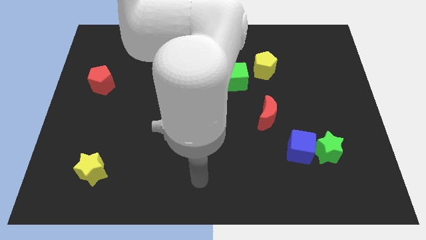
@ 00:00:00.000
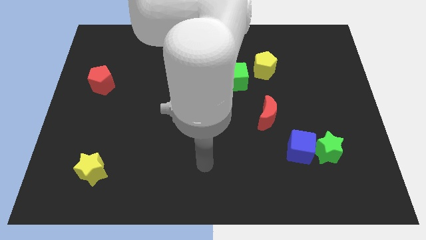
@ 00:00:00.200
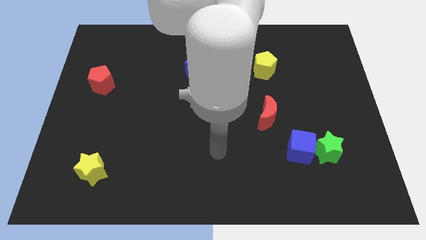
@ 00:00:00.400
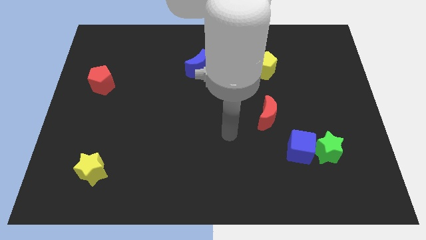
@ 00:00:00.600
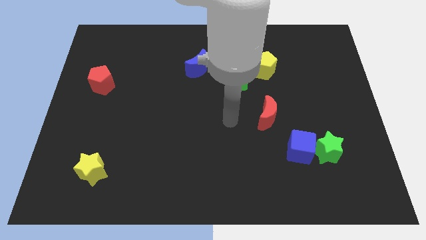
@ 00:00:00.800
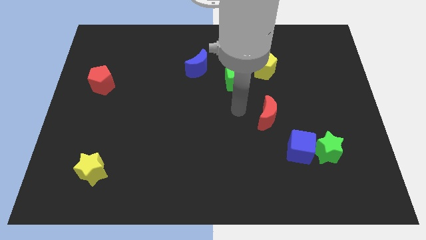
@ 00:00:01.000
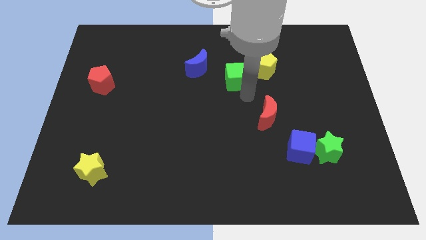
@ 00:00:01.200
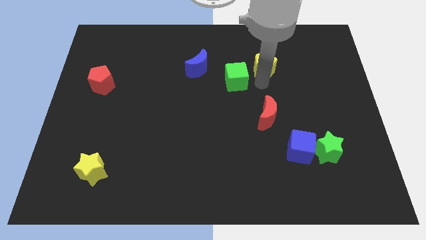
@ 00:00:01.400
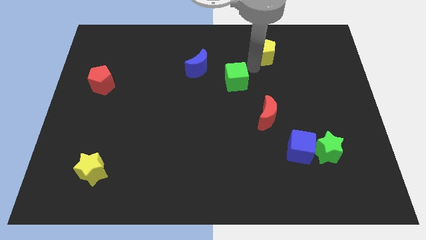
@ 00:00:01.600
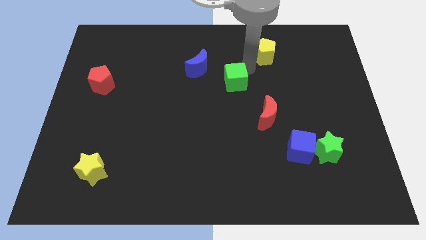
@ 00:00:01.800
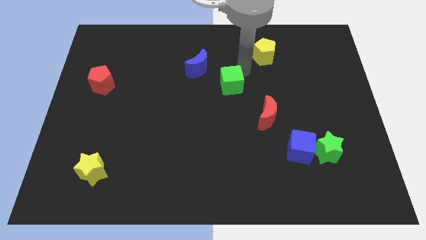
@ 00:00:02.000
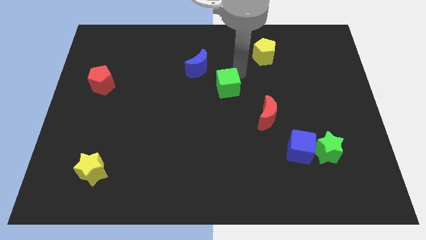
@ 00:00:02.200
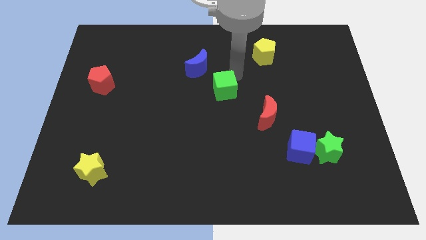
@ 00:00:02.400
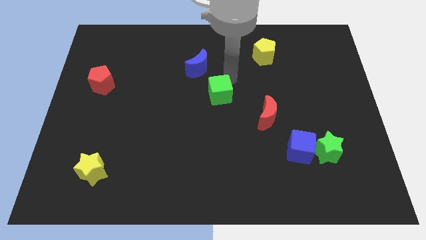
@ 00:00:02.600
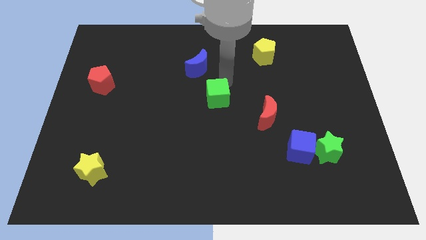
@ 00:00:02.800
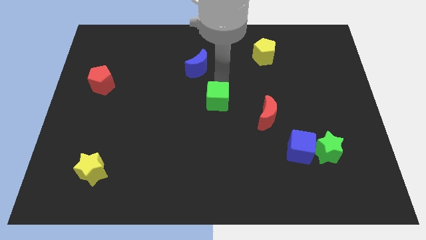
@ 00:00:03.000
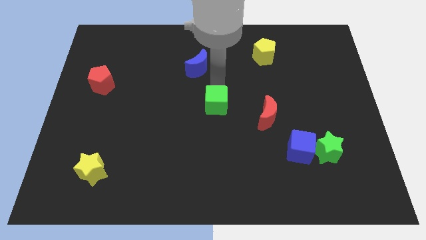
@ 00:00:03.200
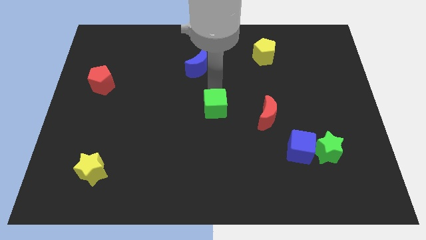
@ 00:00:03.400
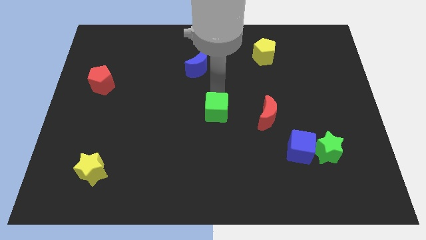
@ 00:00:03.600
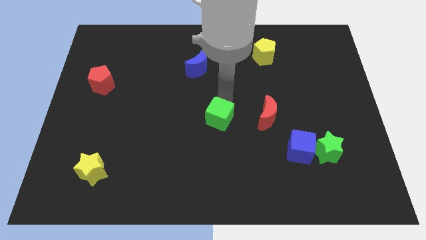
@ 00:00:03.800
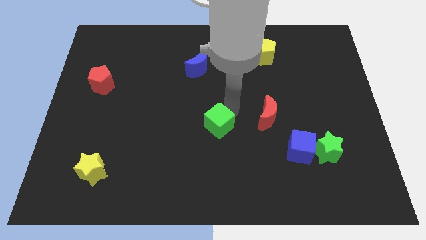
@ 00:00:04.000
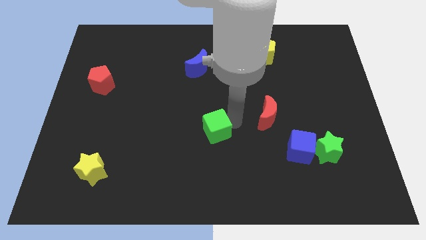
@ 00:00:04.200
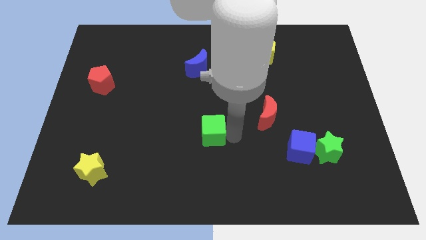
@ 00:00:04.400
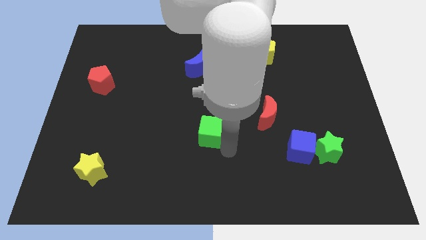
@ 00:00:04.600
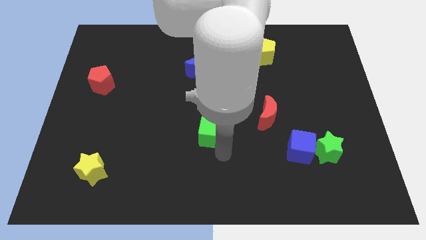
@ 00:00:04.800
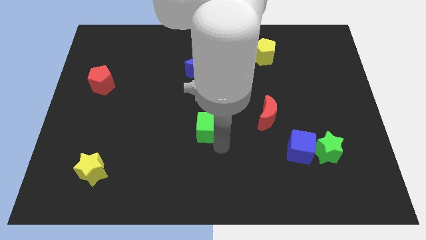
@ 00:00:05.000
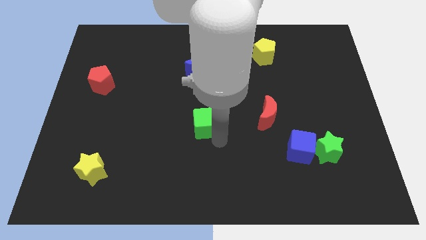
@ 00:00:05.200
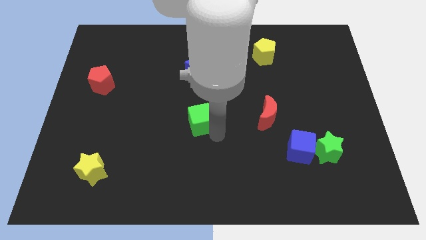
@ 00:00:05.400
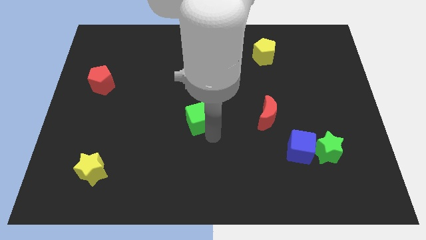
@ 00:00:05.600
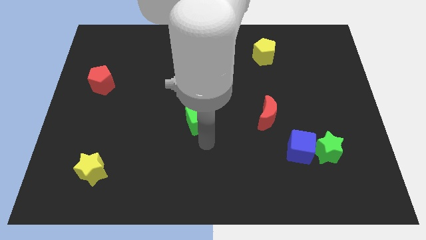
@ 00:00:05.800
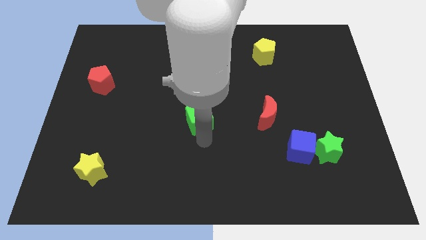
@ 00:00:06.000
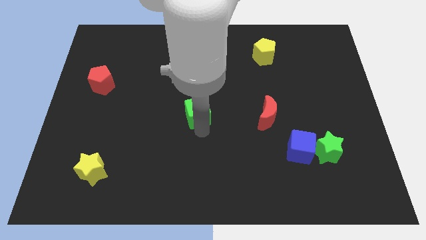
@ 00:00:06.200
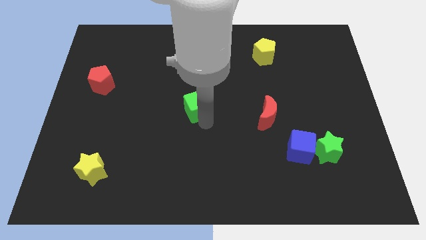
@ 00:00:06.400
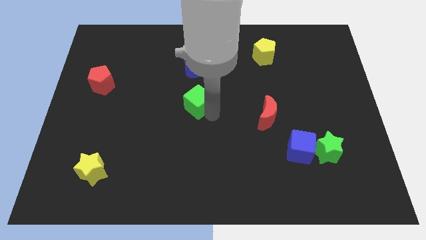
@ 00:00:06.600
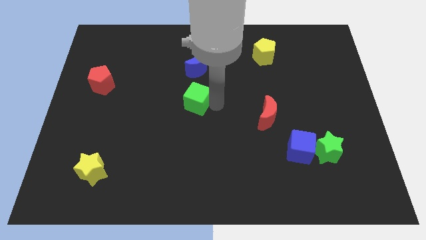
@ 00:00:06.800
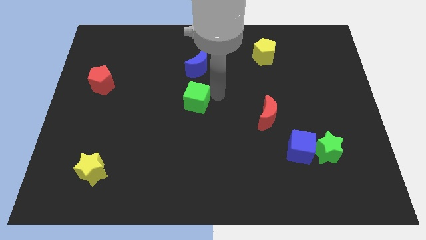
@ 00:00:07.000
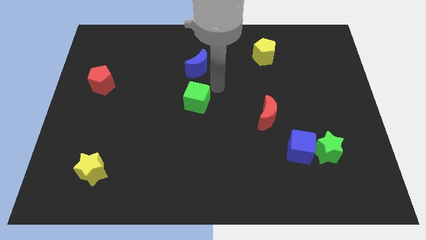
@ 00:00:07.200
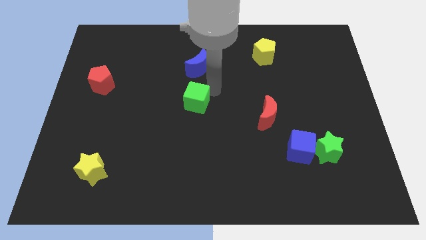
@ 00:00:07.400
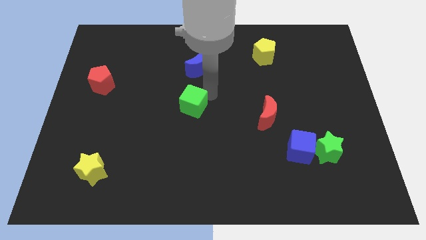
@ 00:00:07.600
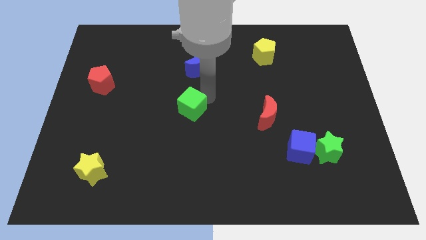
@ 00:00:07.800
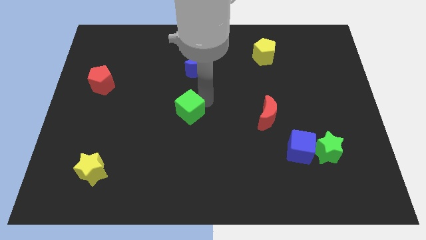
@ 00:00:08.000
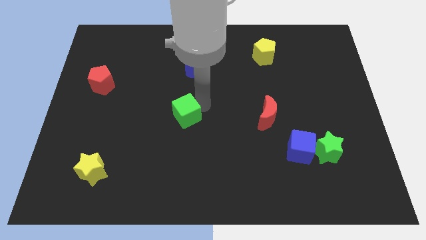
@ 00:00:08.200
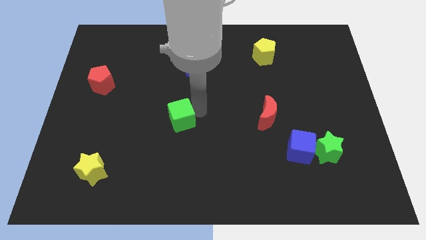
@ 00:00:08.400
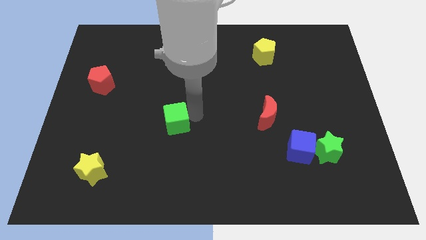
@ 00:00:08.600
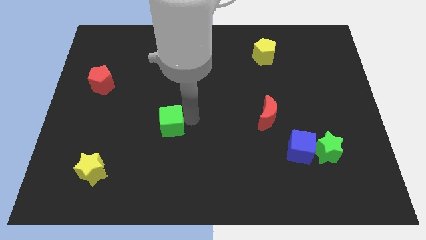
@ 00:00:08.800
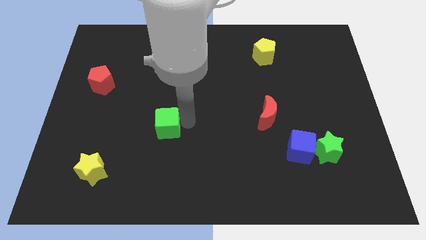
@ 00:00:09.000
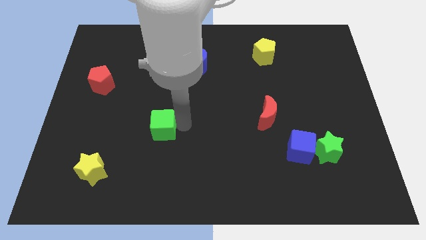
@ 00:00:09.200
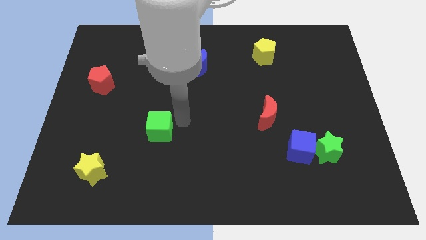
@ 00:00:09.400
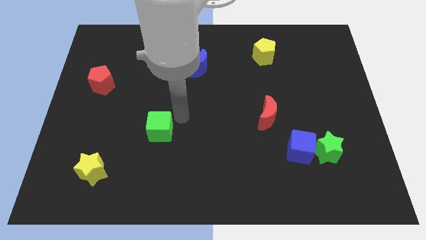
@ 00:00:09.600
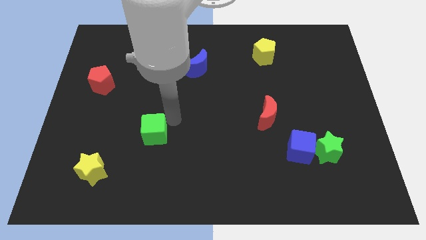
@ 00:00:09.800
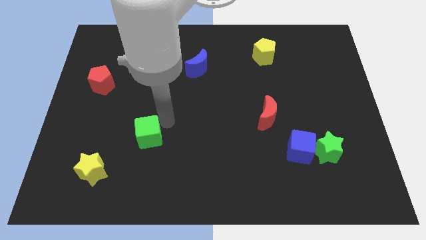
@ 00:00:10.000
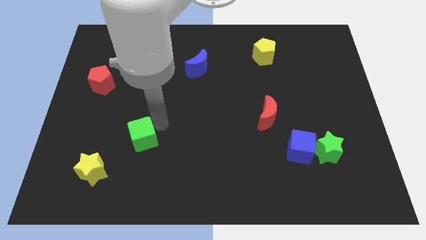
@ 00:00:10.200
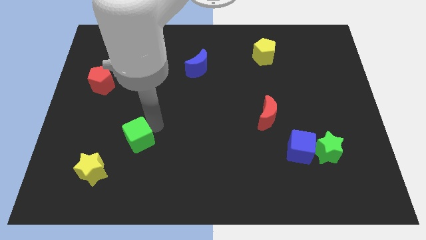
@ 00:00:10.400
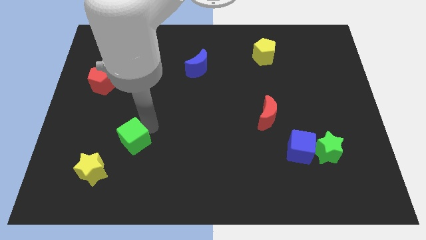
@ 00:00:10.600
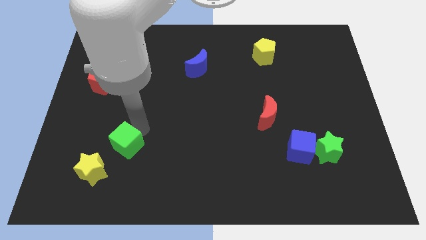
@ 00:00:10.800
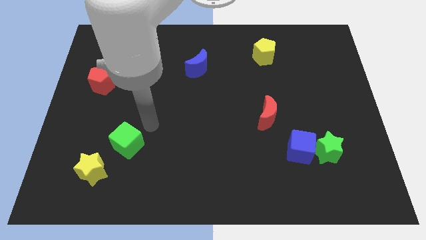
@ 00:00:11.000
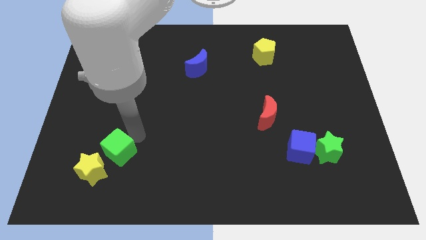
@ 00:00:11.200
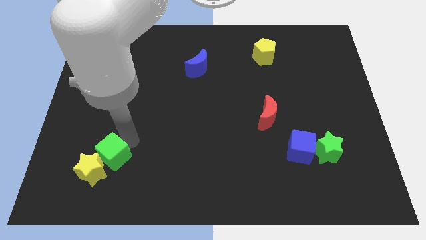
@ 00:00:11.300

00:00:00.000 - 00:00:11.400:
push the green cube to the yellow star
